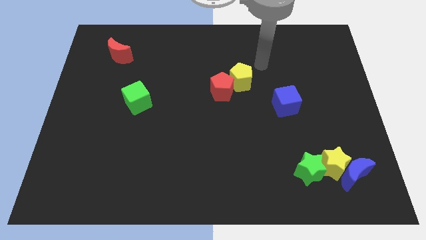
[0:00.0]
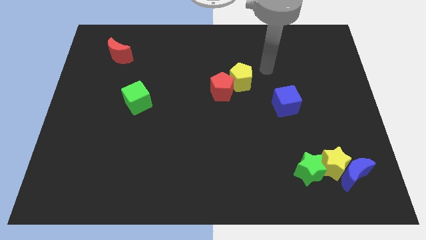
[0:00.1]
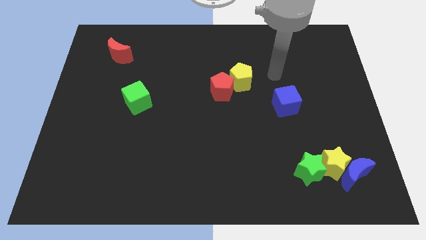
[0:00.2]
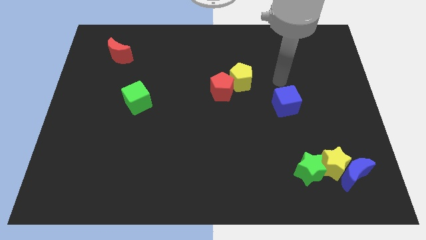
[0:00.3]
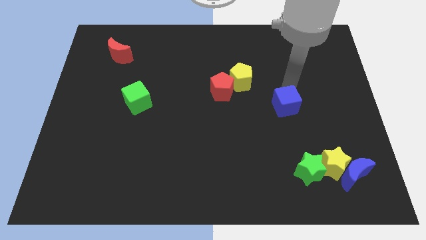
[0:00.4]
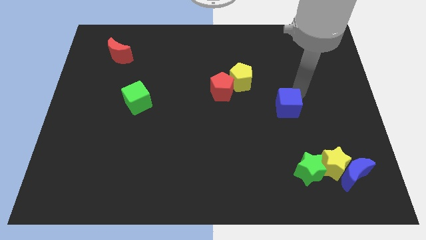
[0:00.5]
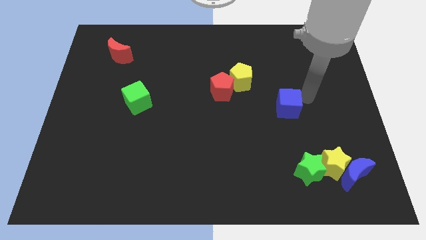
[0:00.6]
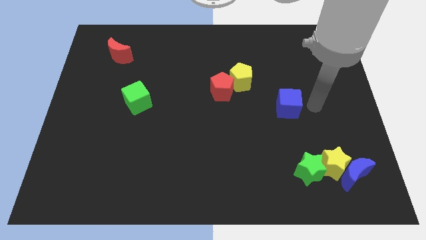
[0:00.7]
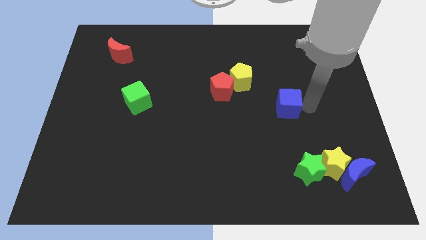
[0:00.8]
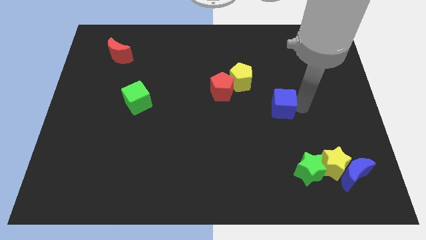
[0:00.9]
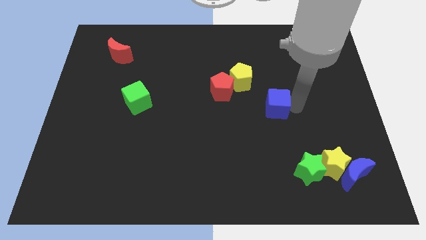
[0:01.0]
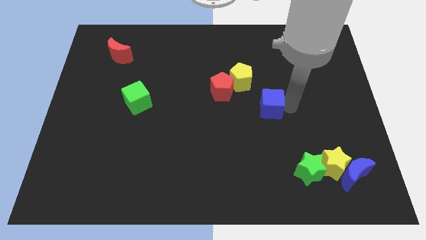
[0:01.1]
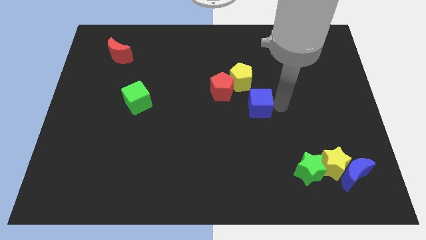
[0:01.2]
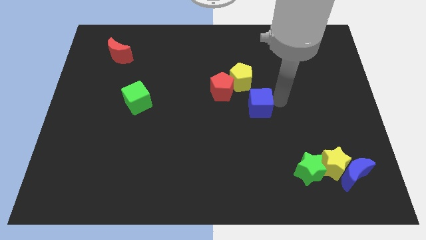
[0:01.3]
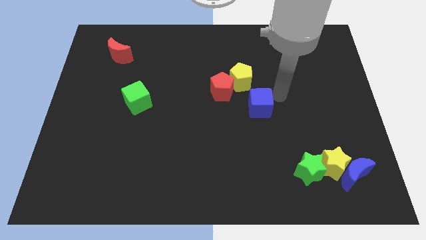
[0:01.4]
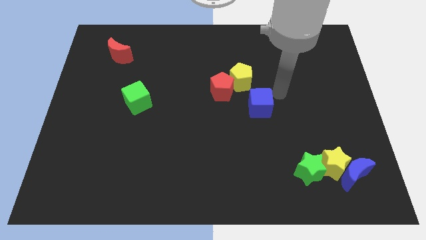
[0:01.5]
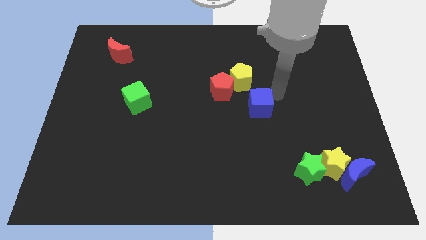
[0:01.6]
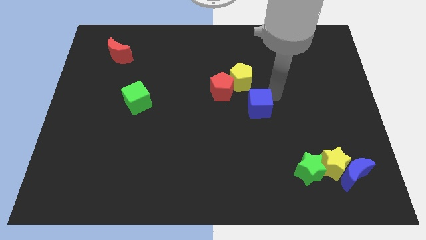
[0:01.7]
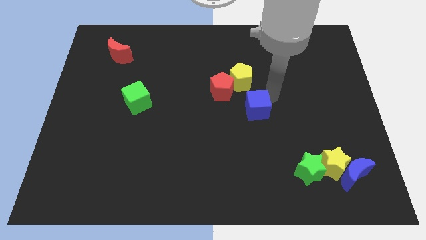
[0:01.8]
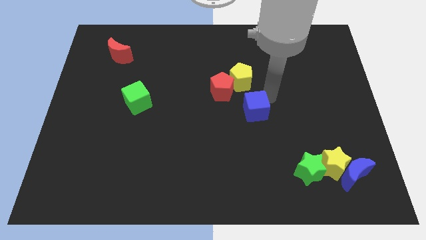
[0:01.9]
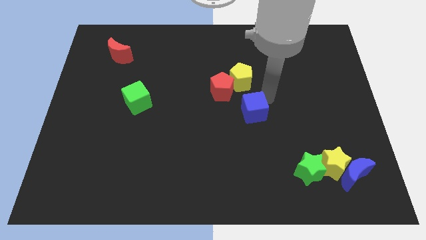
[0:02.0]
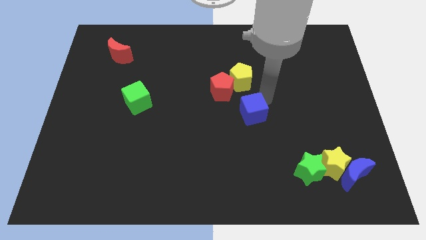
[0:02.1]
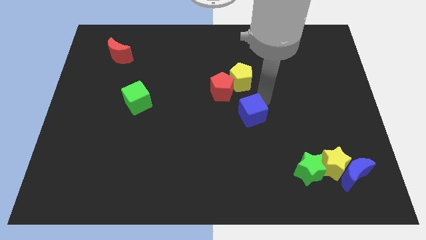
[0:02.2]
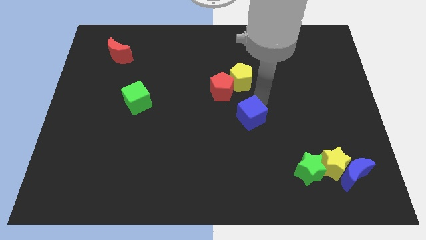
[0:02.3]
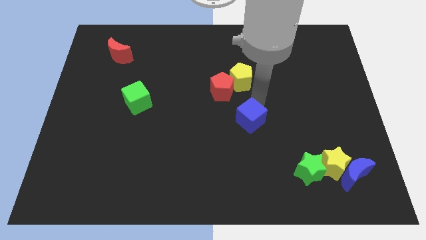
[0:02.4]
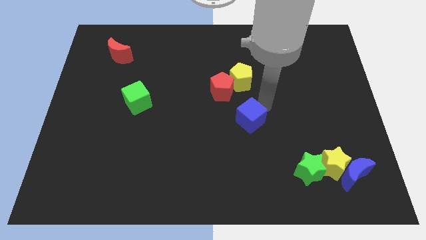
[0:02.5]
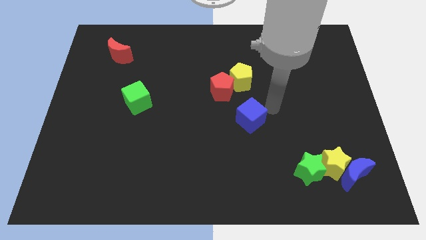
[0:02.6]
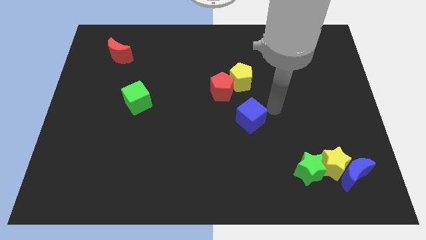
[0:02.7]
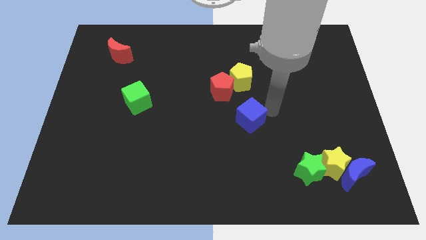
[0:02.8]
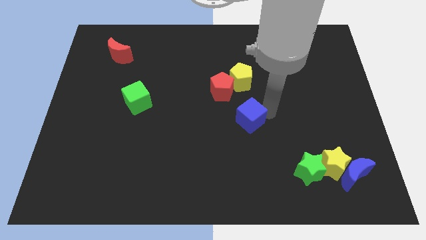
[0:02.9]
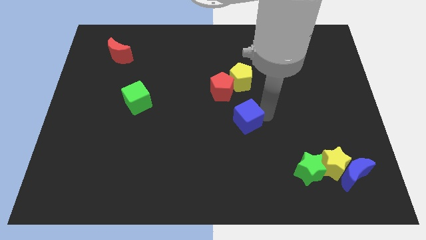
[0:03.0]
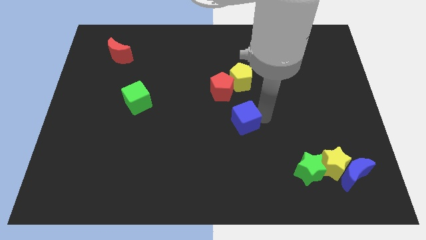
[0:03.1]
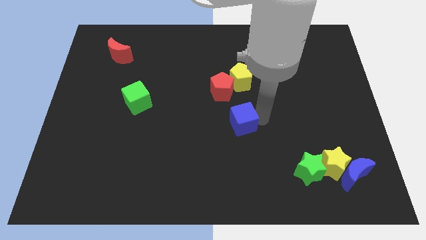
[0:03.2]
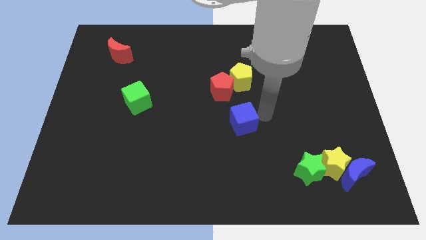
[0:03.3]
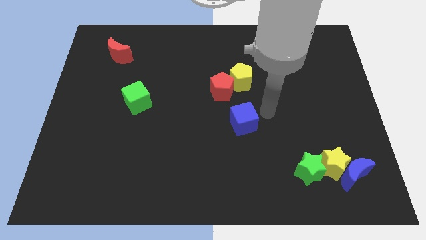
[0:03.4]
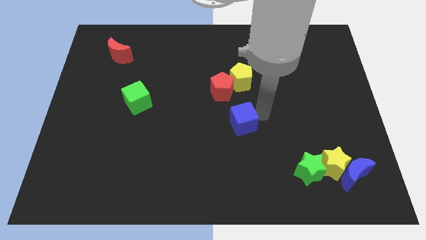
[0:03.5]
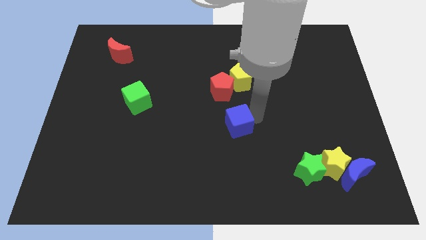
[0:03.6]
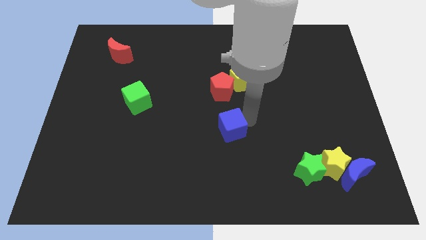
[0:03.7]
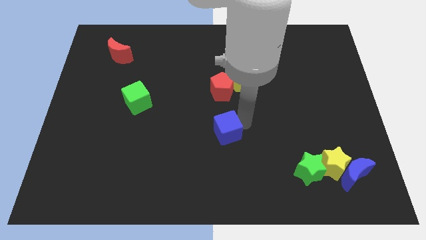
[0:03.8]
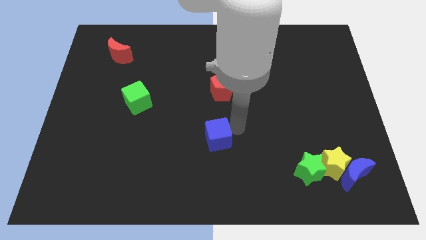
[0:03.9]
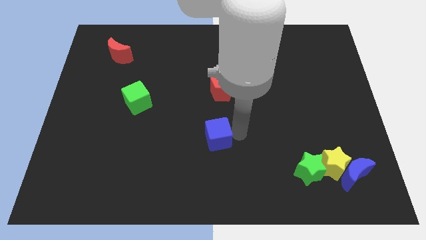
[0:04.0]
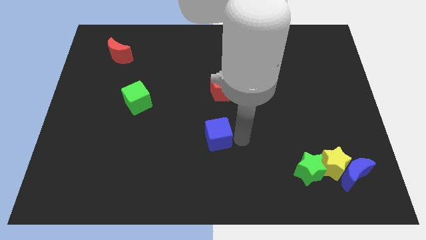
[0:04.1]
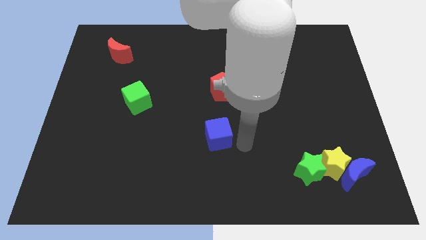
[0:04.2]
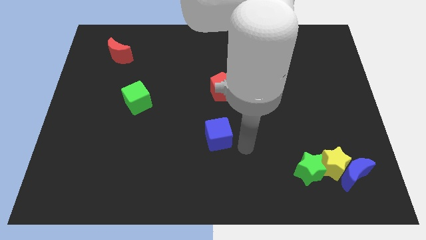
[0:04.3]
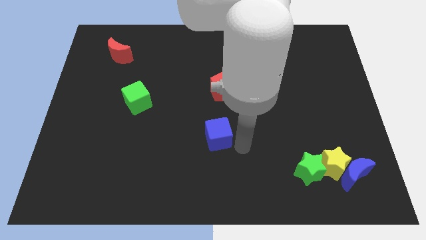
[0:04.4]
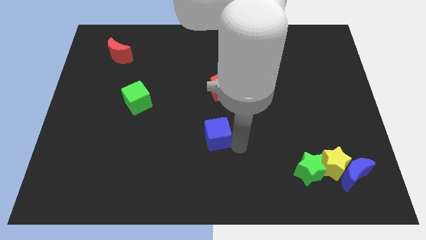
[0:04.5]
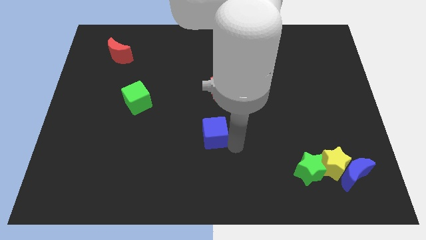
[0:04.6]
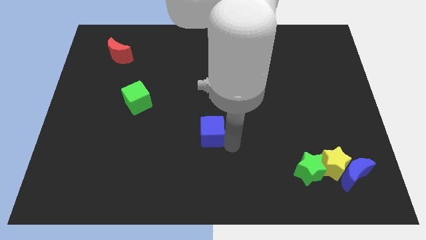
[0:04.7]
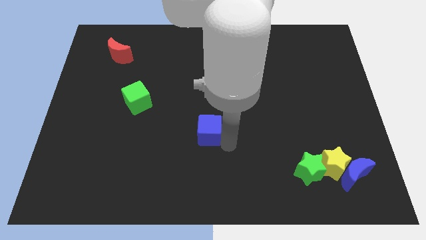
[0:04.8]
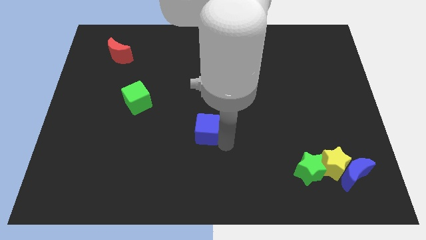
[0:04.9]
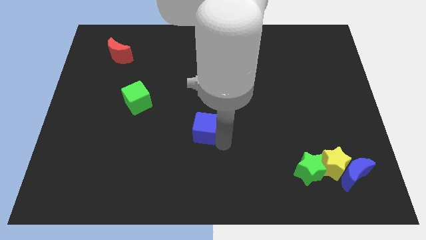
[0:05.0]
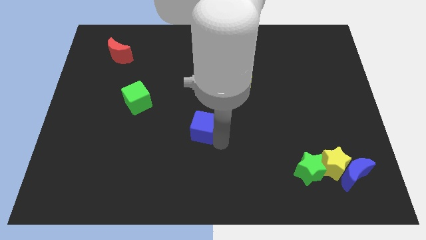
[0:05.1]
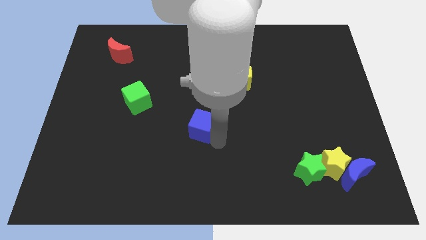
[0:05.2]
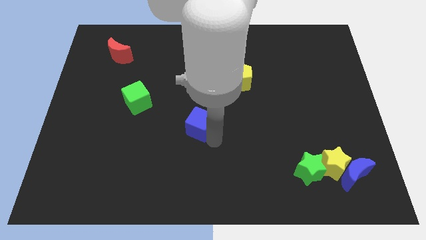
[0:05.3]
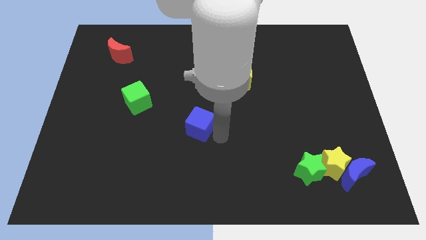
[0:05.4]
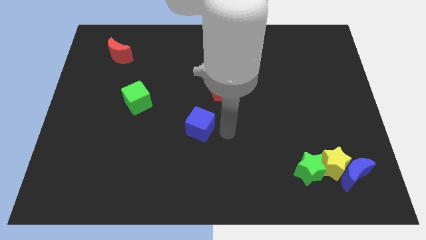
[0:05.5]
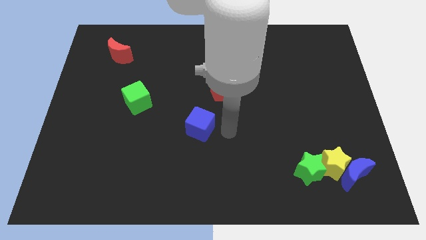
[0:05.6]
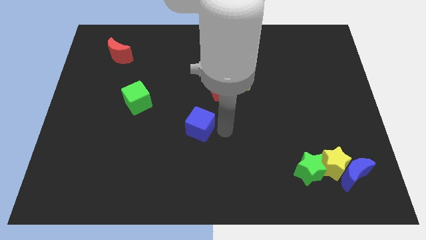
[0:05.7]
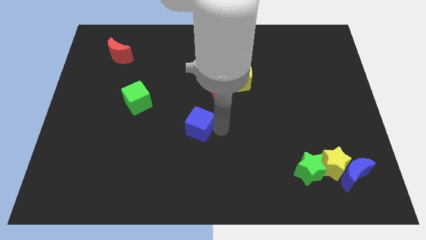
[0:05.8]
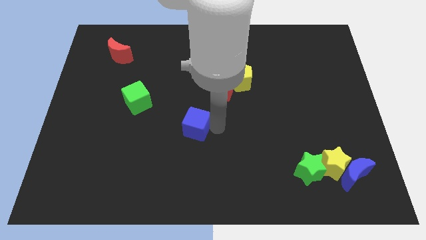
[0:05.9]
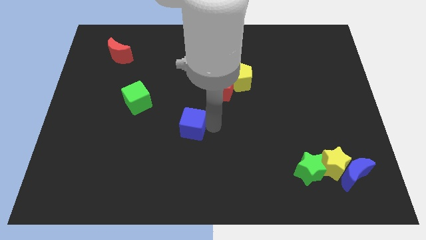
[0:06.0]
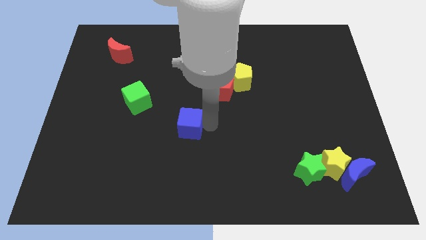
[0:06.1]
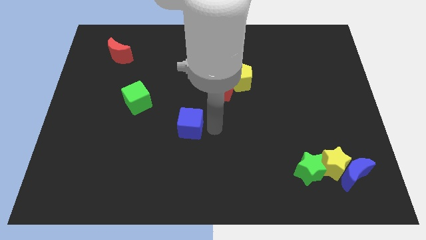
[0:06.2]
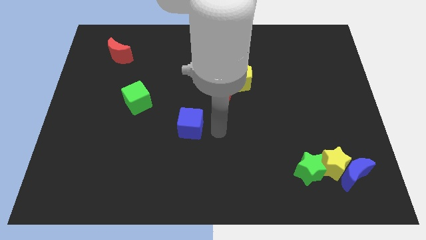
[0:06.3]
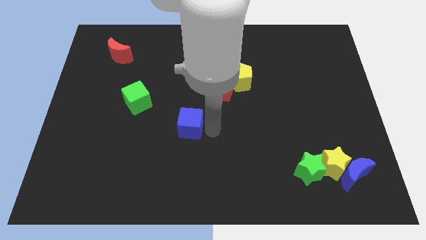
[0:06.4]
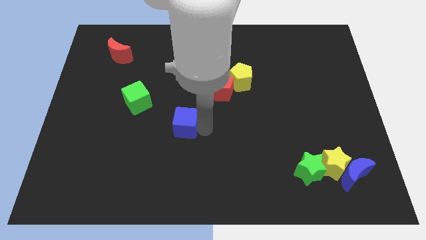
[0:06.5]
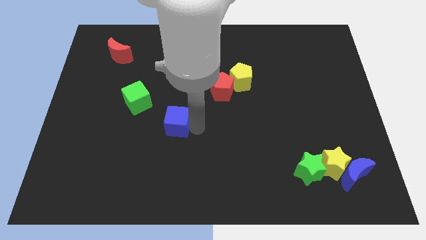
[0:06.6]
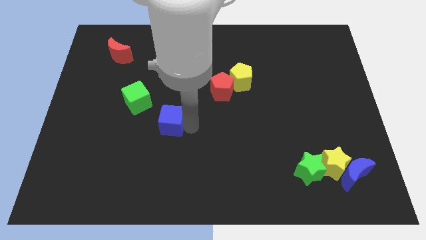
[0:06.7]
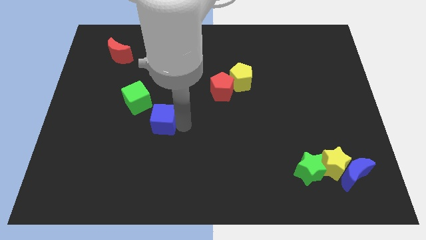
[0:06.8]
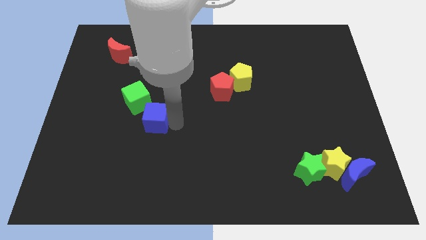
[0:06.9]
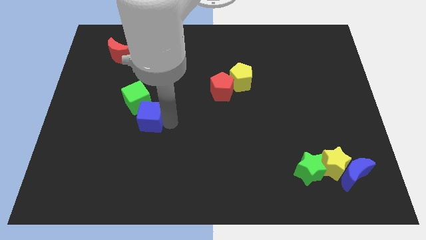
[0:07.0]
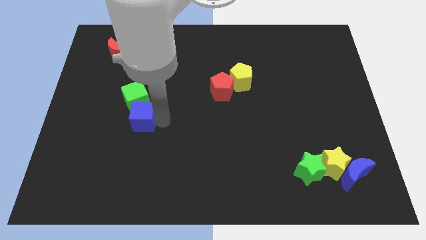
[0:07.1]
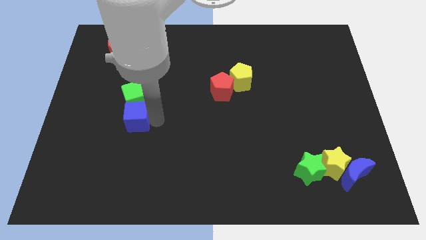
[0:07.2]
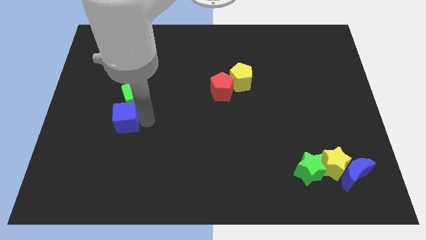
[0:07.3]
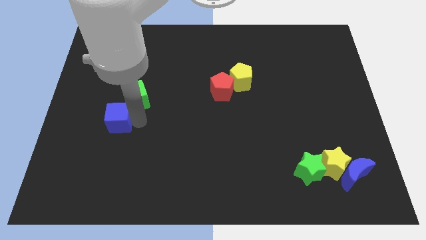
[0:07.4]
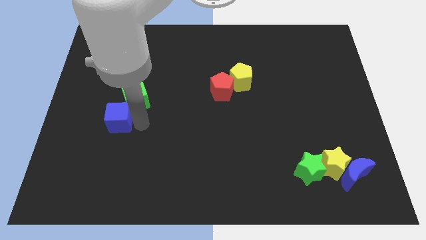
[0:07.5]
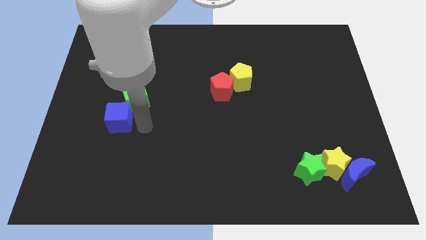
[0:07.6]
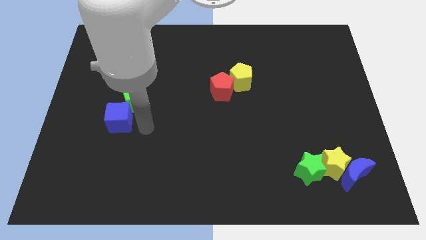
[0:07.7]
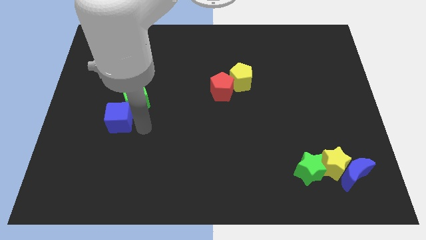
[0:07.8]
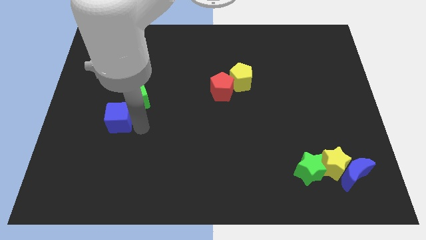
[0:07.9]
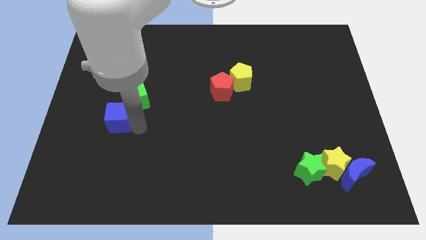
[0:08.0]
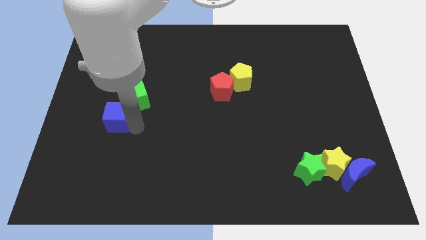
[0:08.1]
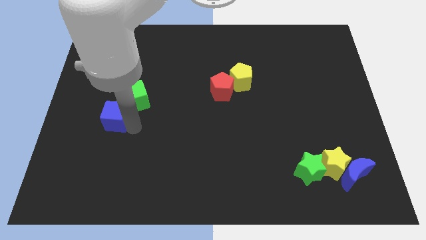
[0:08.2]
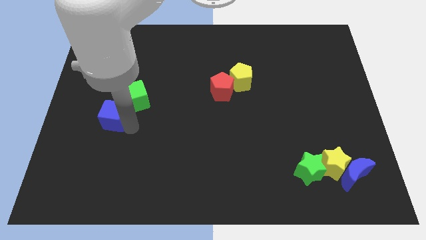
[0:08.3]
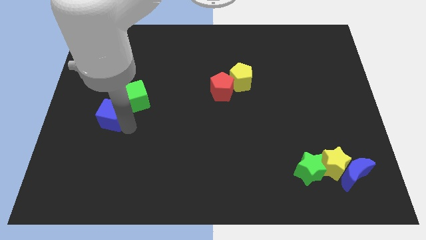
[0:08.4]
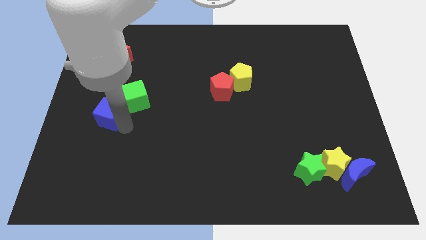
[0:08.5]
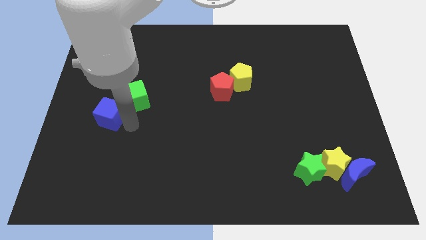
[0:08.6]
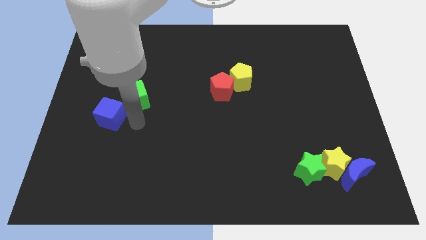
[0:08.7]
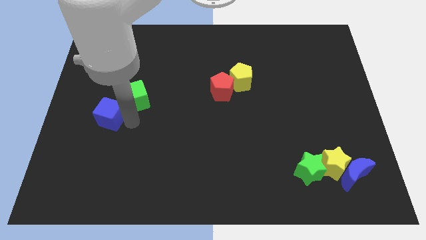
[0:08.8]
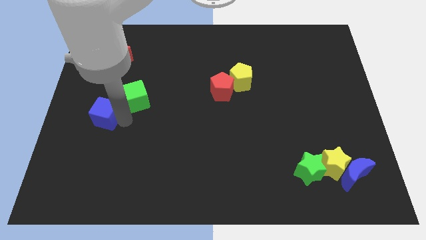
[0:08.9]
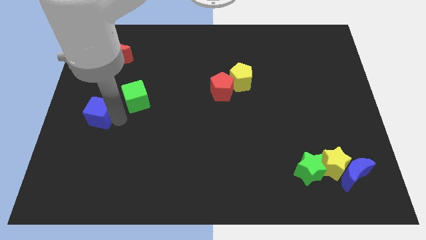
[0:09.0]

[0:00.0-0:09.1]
push the blue cube to the left side of the board
